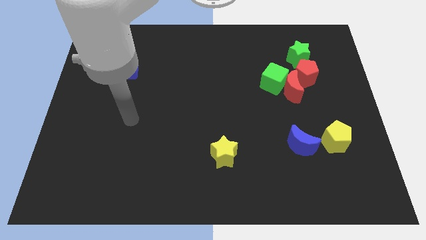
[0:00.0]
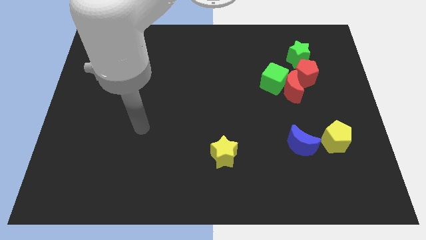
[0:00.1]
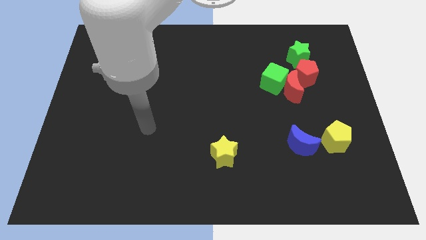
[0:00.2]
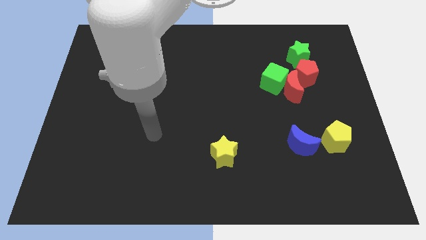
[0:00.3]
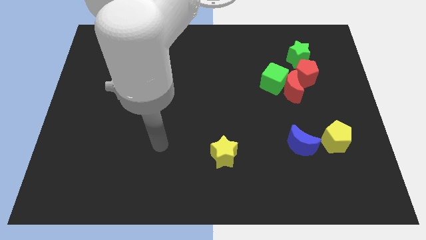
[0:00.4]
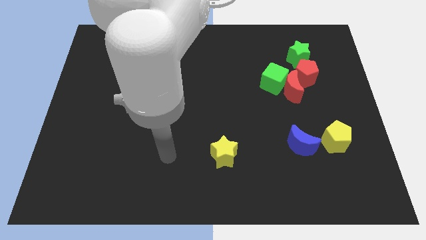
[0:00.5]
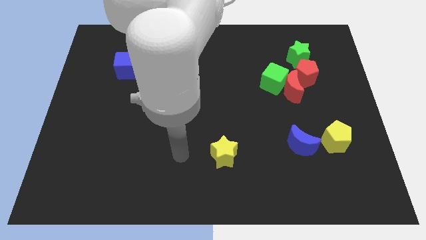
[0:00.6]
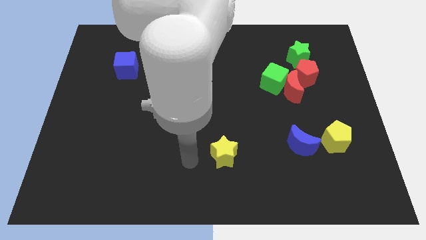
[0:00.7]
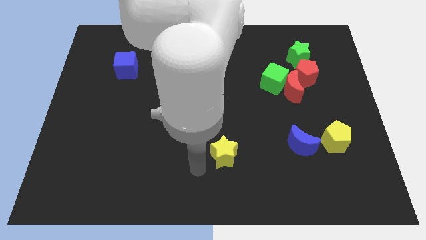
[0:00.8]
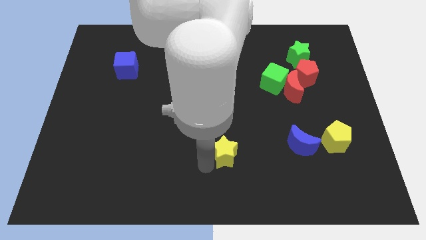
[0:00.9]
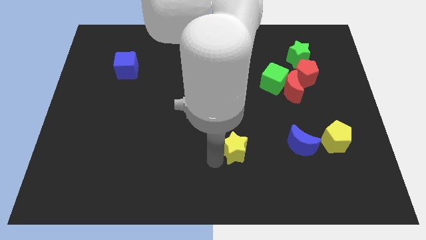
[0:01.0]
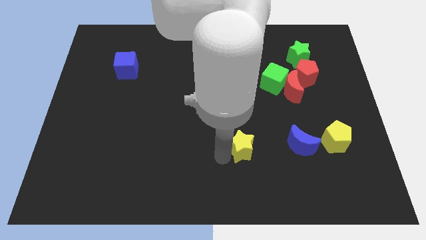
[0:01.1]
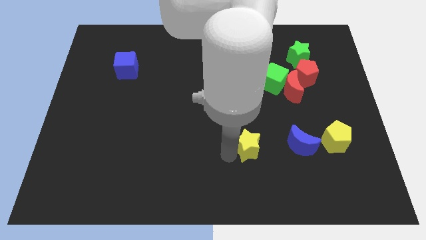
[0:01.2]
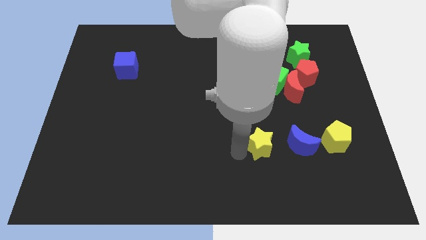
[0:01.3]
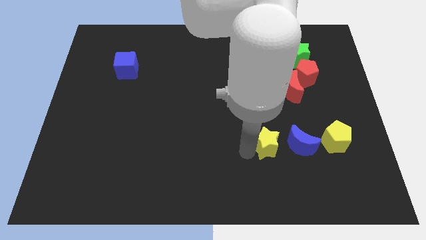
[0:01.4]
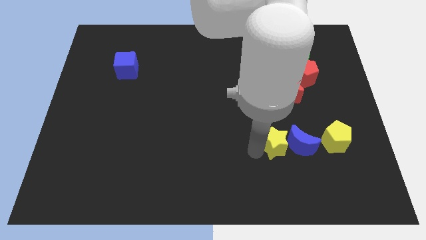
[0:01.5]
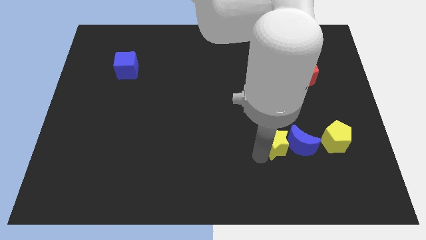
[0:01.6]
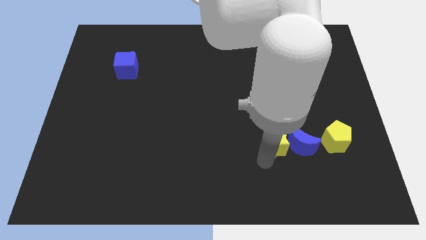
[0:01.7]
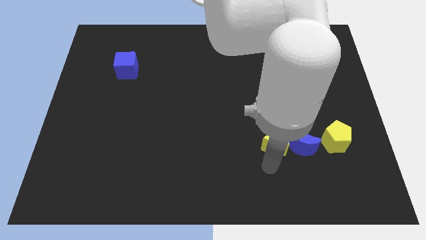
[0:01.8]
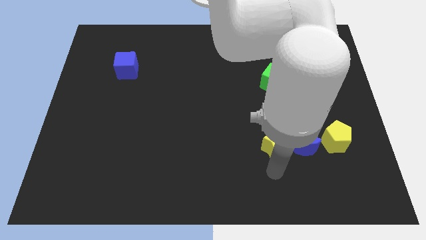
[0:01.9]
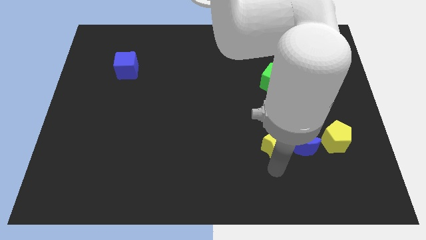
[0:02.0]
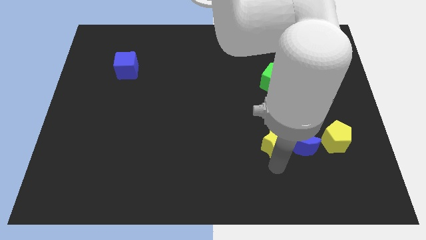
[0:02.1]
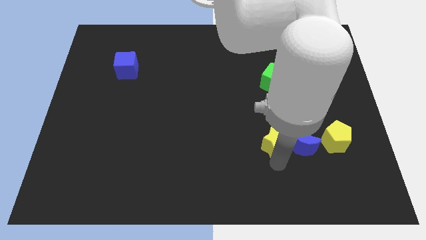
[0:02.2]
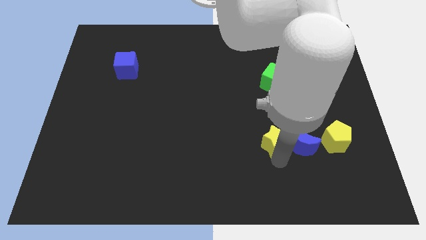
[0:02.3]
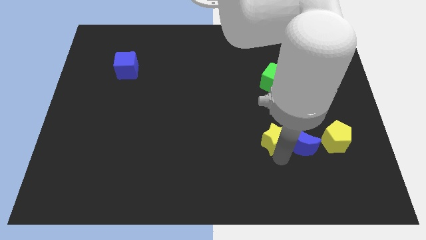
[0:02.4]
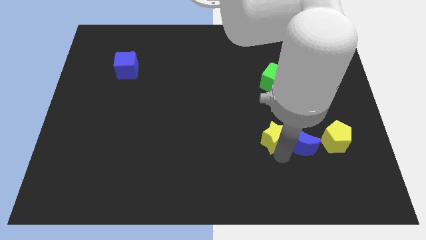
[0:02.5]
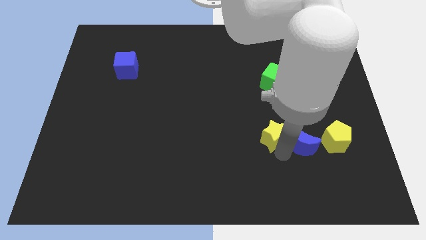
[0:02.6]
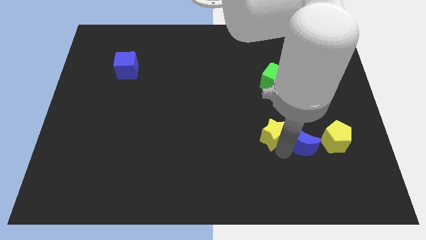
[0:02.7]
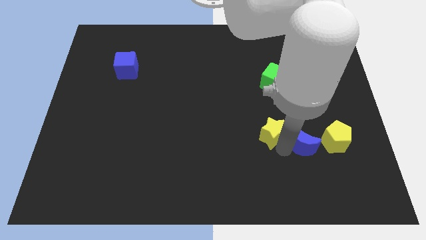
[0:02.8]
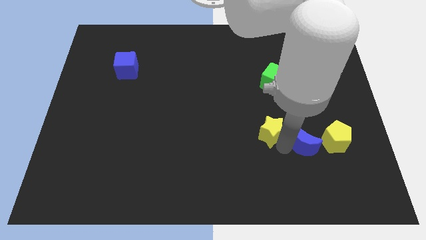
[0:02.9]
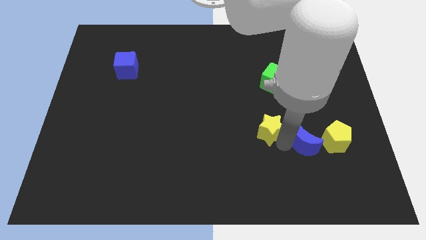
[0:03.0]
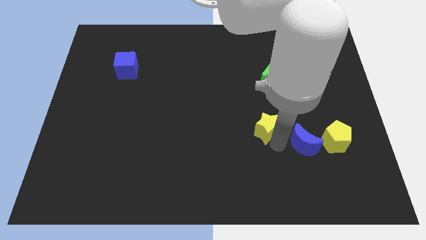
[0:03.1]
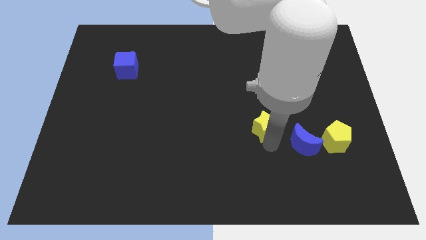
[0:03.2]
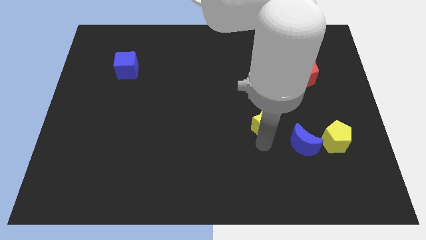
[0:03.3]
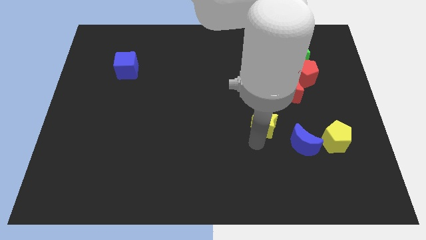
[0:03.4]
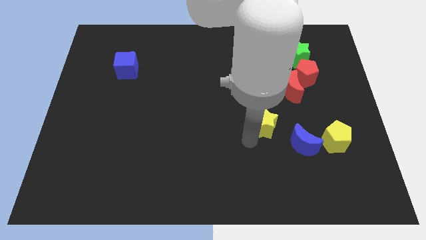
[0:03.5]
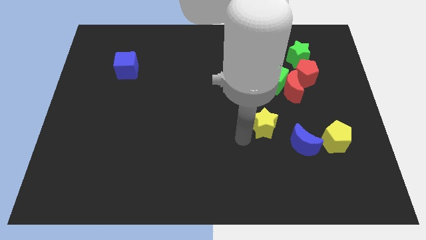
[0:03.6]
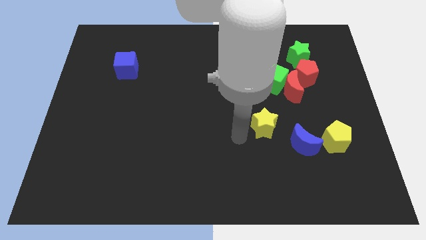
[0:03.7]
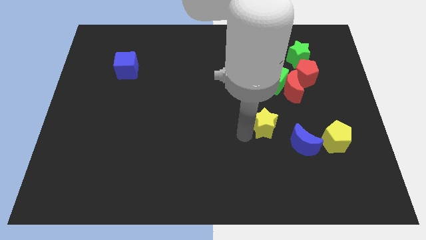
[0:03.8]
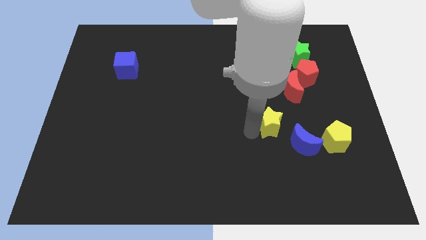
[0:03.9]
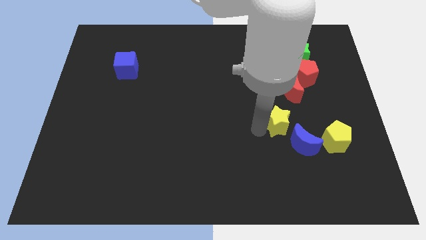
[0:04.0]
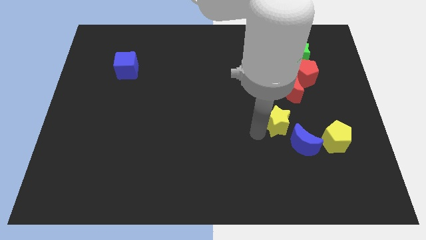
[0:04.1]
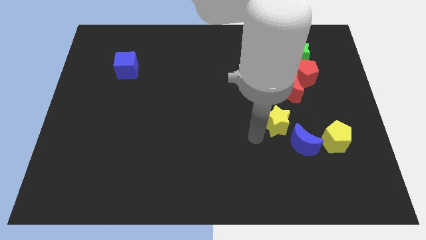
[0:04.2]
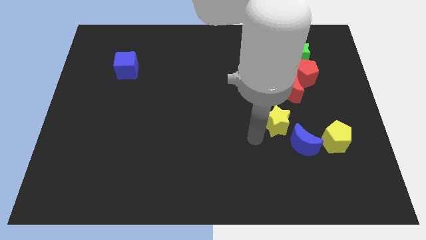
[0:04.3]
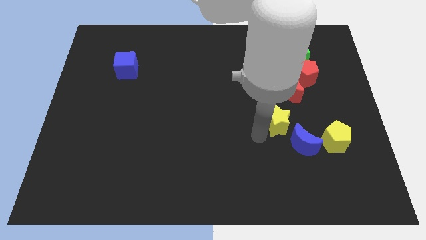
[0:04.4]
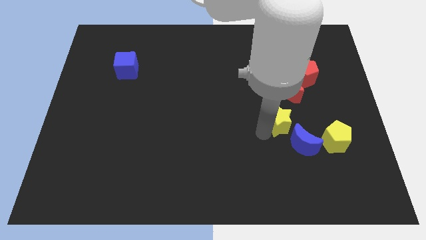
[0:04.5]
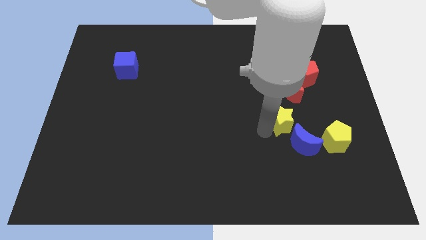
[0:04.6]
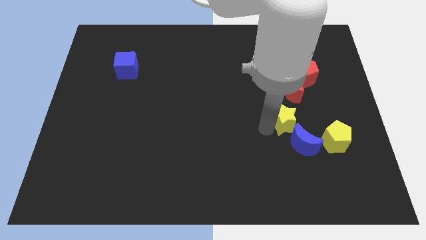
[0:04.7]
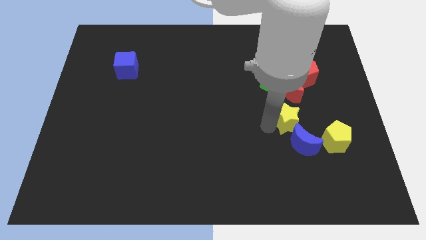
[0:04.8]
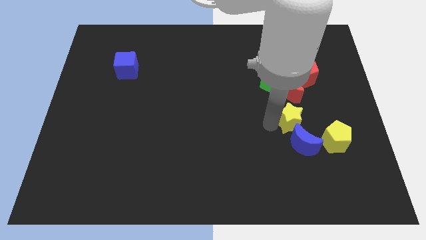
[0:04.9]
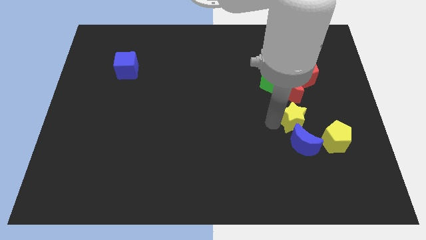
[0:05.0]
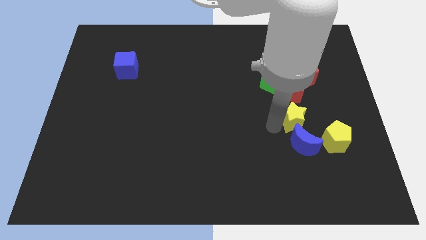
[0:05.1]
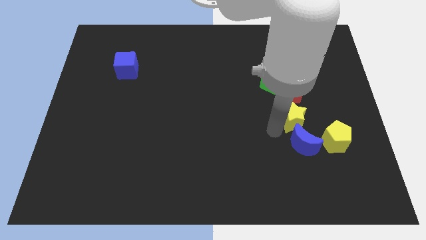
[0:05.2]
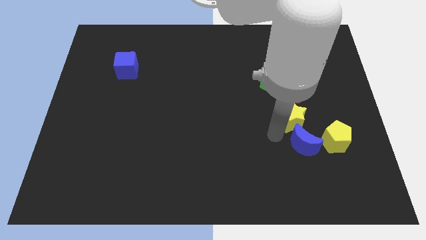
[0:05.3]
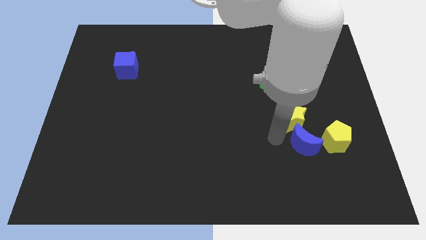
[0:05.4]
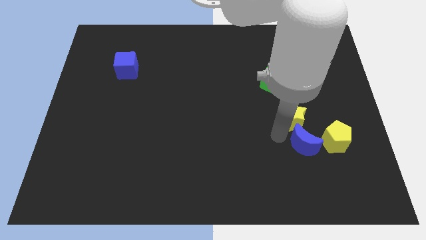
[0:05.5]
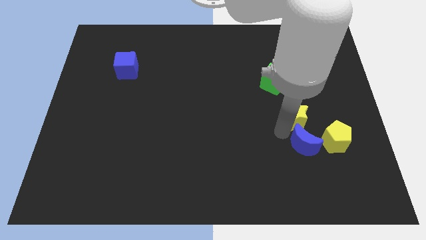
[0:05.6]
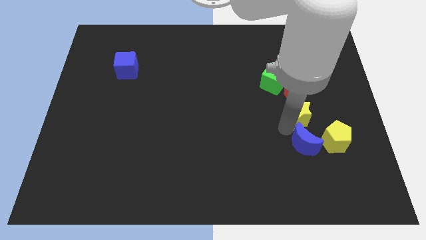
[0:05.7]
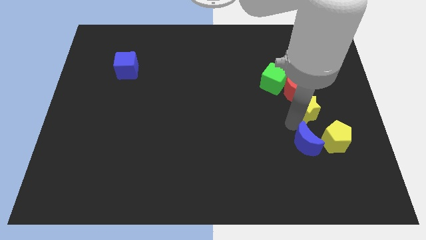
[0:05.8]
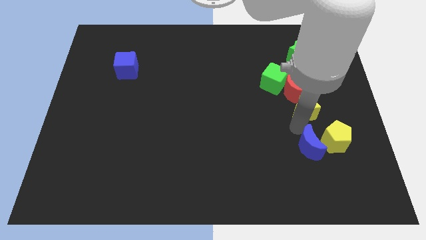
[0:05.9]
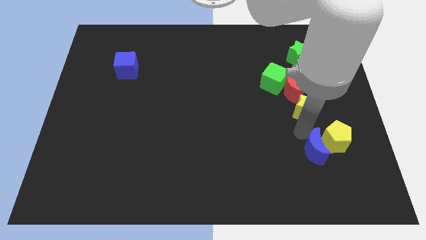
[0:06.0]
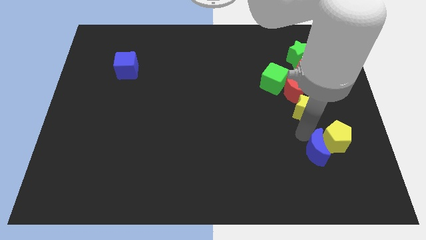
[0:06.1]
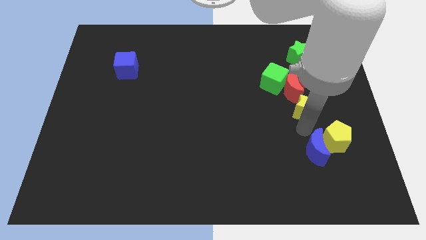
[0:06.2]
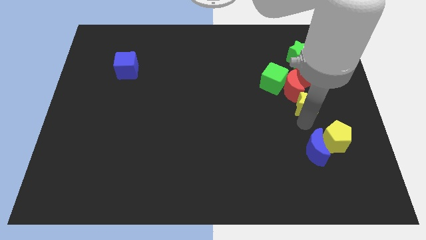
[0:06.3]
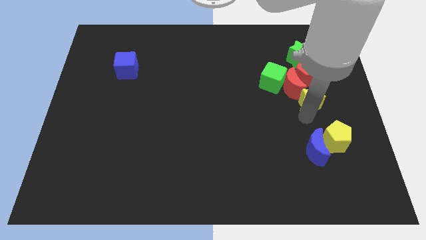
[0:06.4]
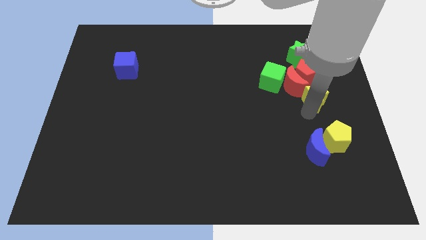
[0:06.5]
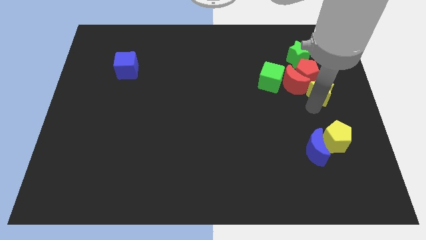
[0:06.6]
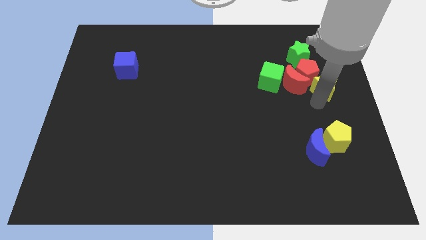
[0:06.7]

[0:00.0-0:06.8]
push the yellow star to the red pentagon
